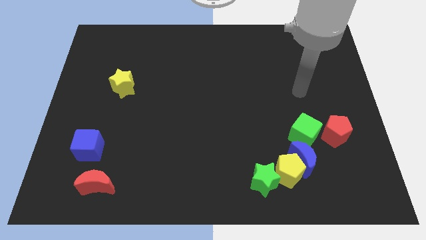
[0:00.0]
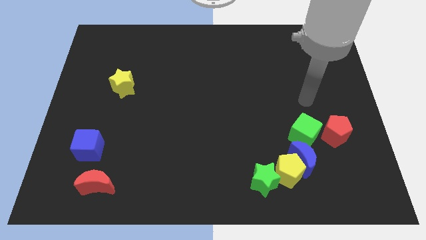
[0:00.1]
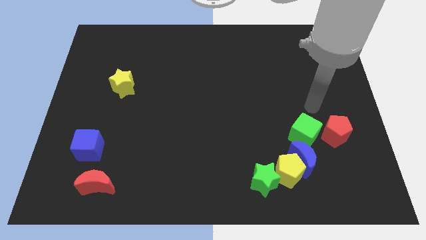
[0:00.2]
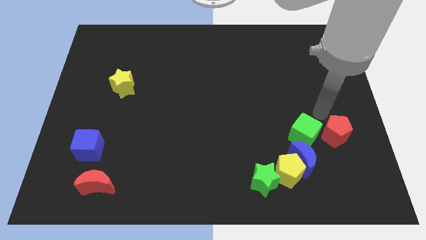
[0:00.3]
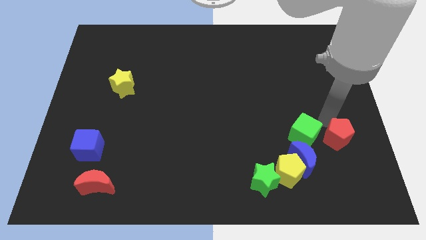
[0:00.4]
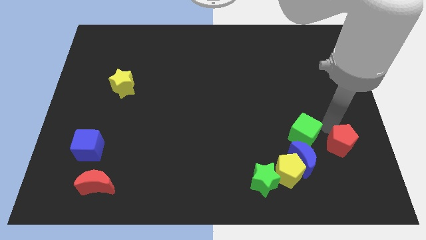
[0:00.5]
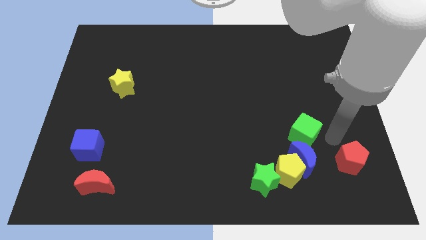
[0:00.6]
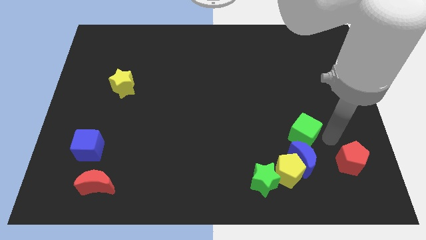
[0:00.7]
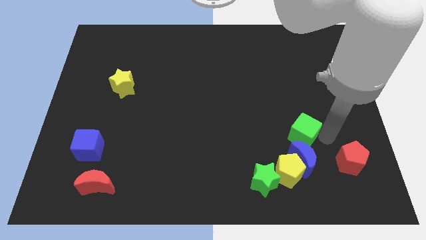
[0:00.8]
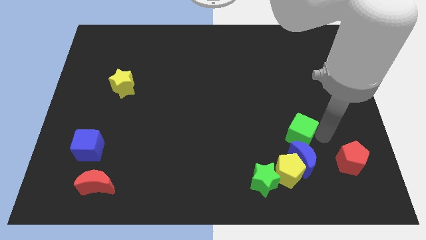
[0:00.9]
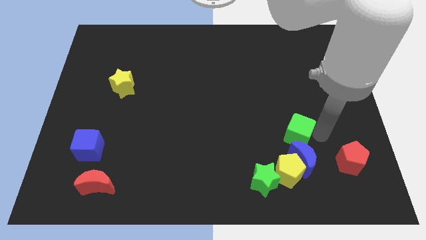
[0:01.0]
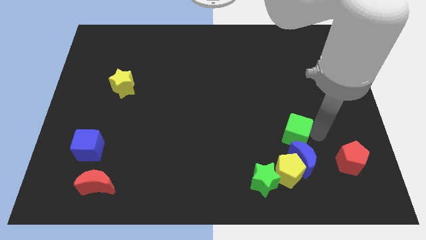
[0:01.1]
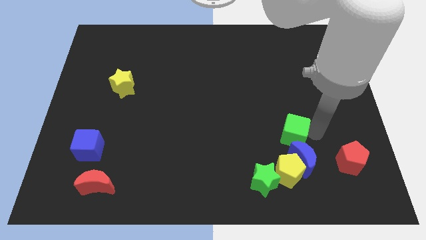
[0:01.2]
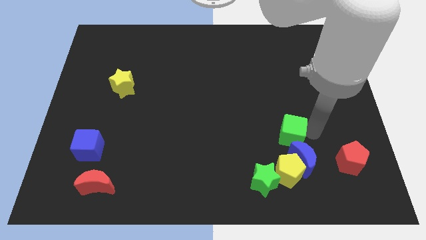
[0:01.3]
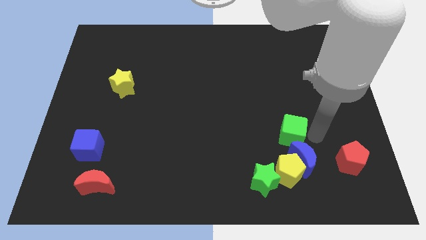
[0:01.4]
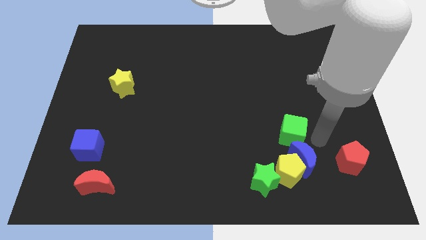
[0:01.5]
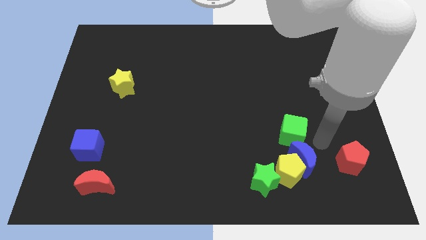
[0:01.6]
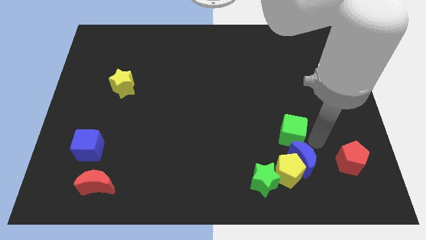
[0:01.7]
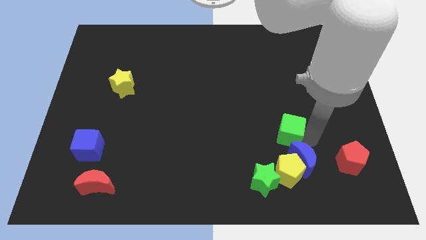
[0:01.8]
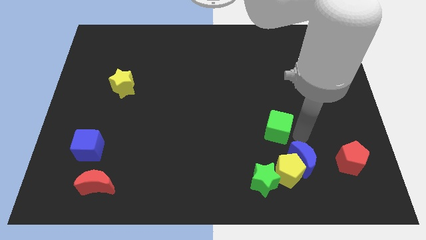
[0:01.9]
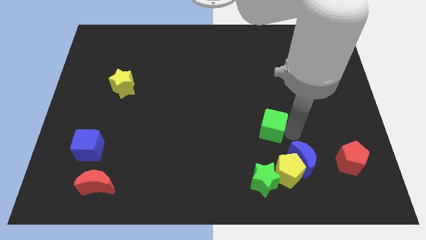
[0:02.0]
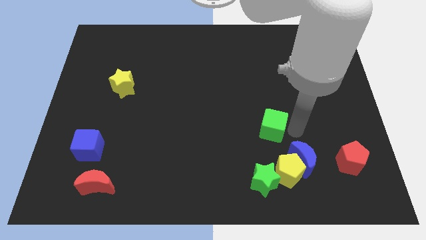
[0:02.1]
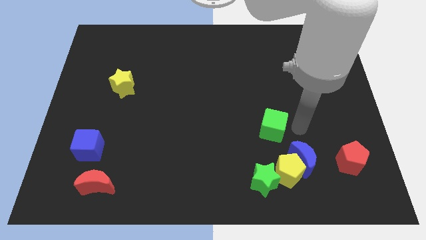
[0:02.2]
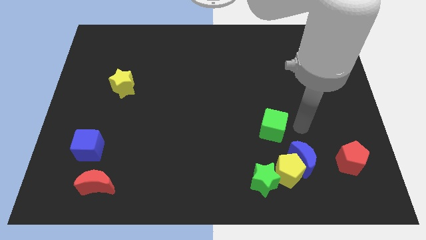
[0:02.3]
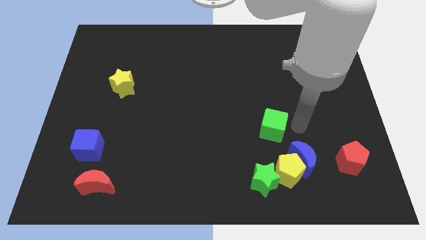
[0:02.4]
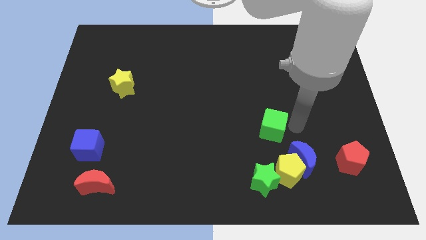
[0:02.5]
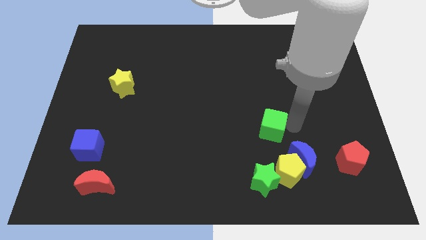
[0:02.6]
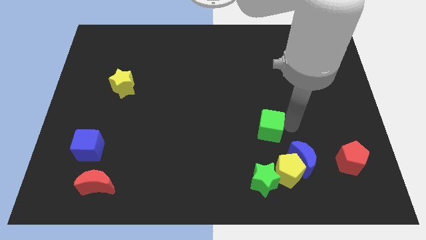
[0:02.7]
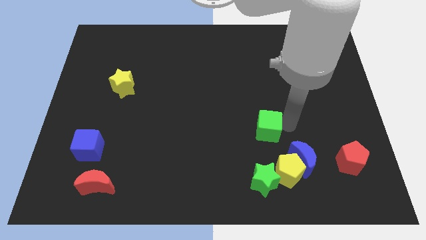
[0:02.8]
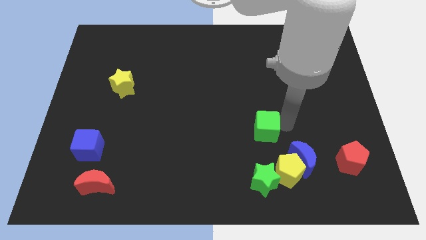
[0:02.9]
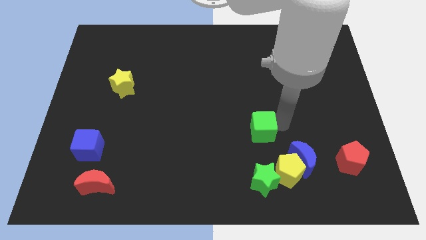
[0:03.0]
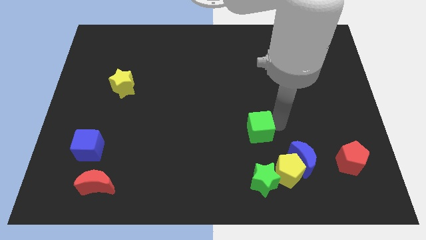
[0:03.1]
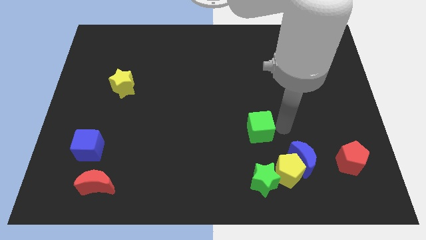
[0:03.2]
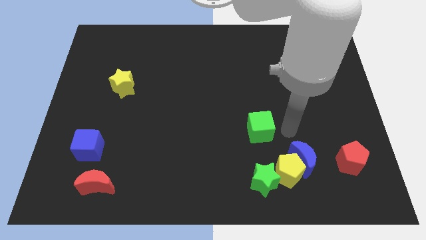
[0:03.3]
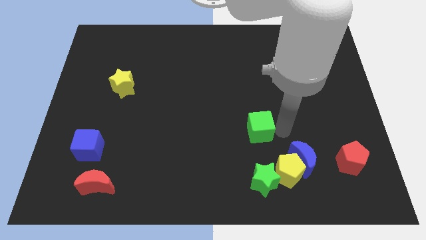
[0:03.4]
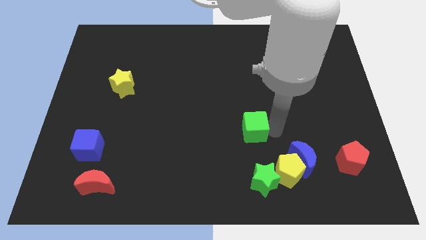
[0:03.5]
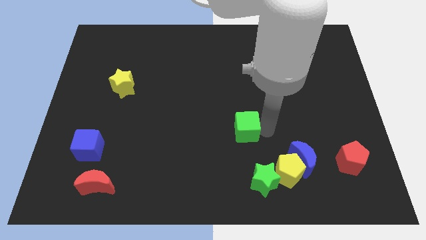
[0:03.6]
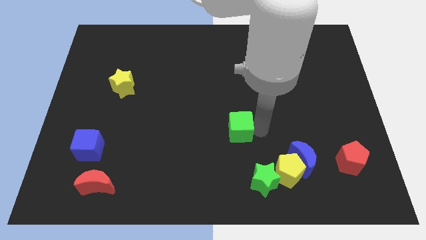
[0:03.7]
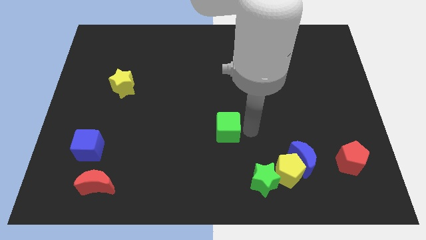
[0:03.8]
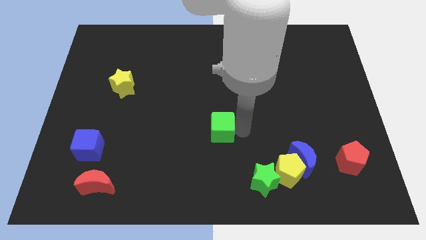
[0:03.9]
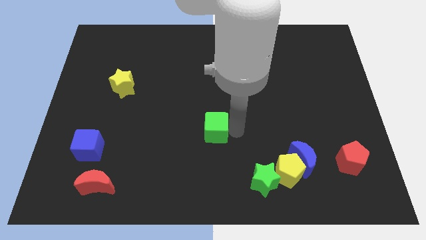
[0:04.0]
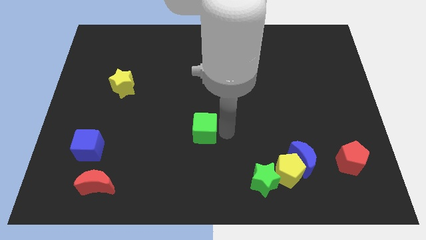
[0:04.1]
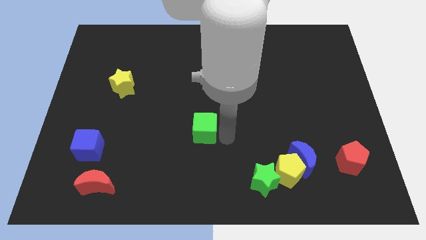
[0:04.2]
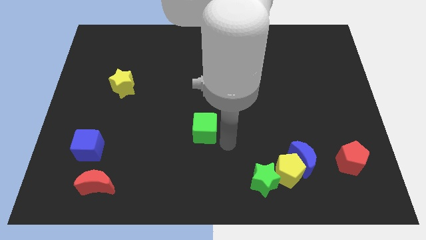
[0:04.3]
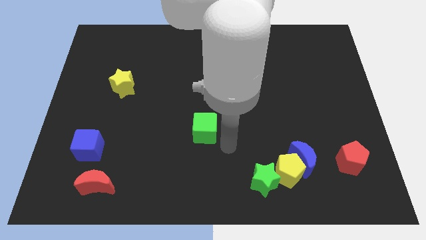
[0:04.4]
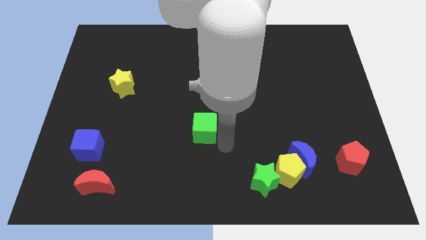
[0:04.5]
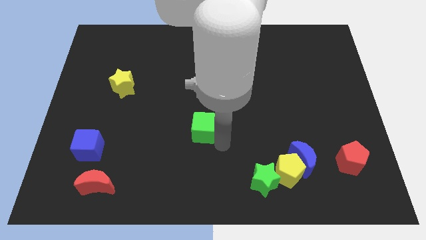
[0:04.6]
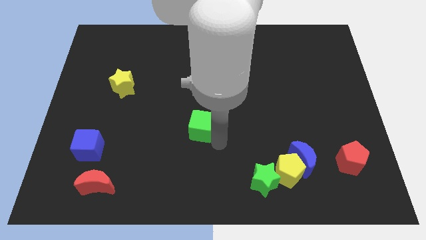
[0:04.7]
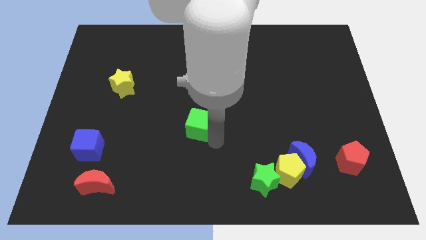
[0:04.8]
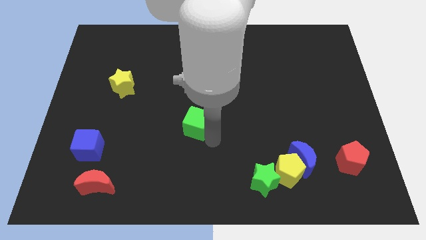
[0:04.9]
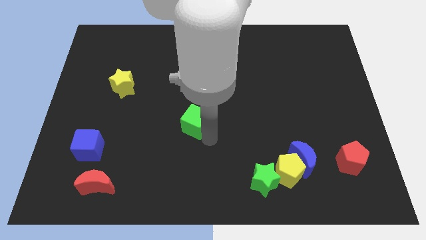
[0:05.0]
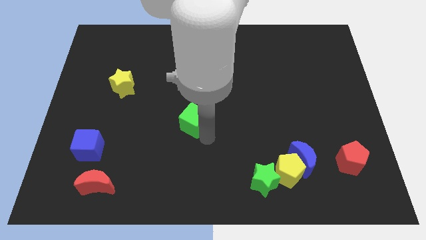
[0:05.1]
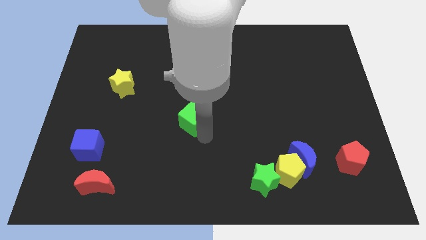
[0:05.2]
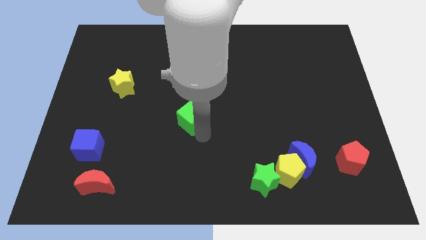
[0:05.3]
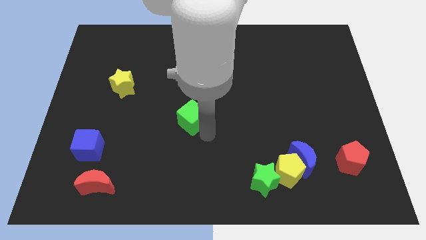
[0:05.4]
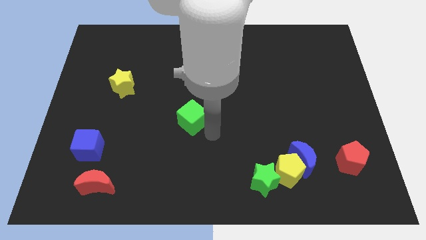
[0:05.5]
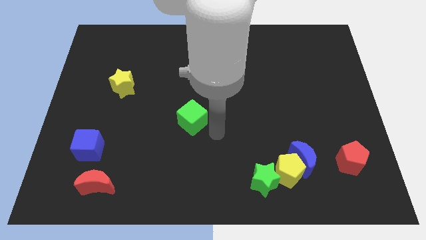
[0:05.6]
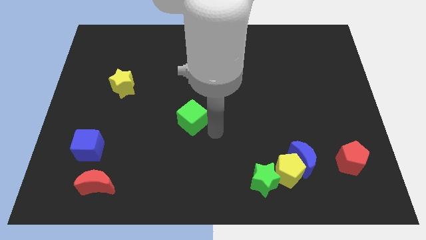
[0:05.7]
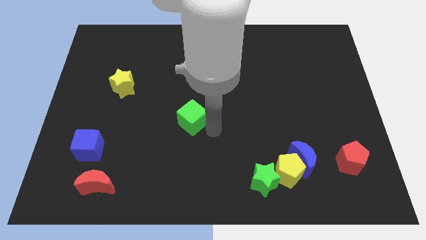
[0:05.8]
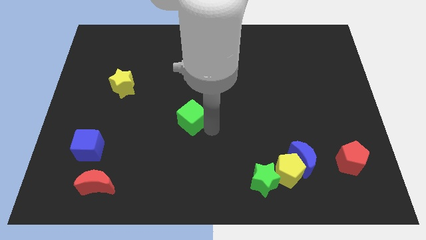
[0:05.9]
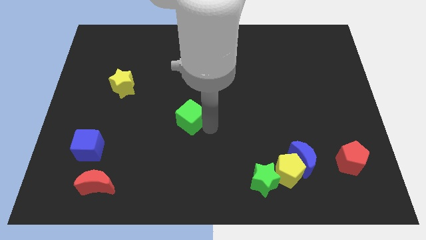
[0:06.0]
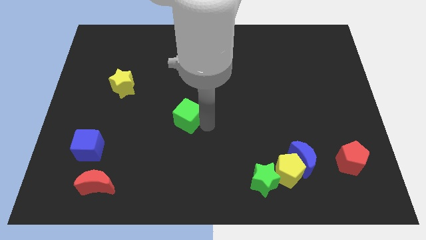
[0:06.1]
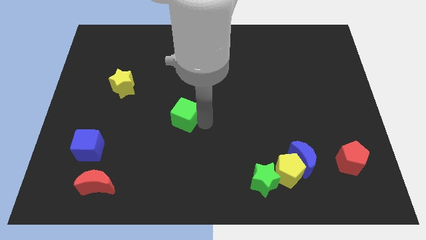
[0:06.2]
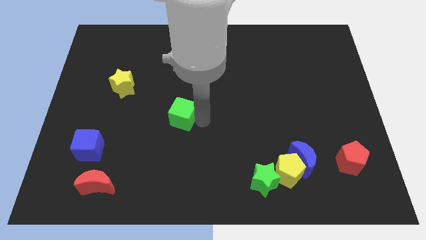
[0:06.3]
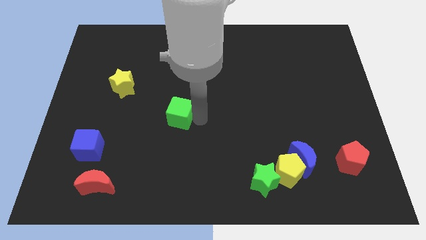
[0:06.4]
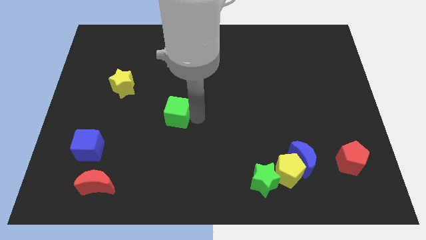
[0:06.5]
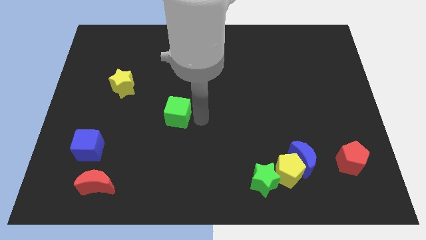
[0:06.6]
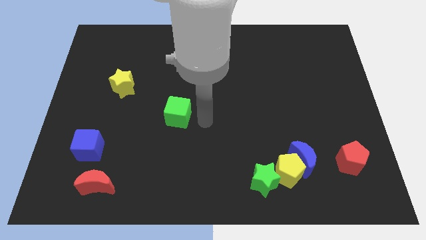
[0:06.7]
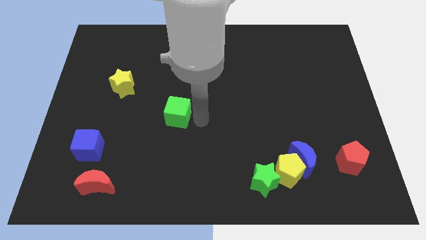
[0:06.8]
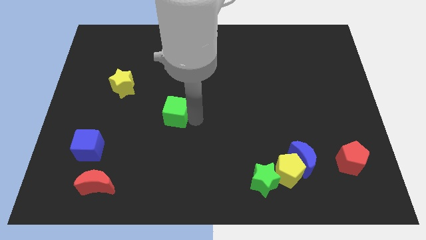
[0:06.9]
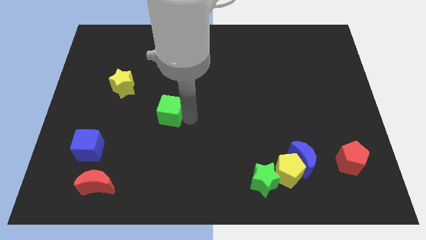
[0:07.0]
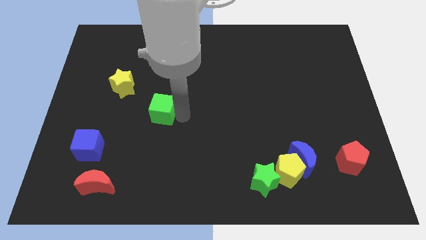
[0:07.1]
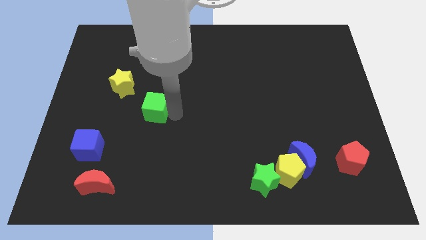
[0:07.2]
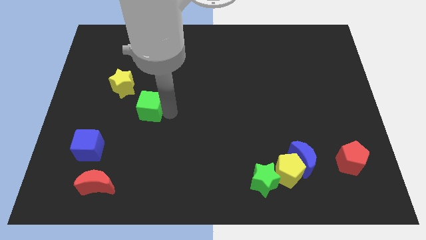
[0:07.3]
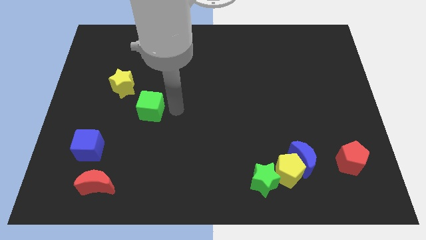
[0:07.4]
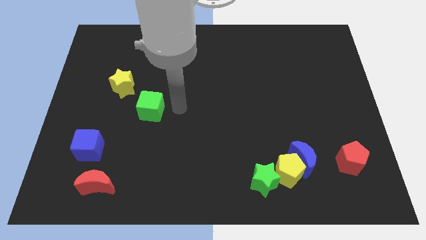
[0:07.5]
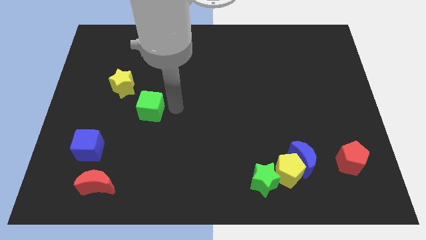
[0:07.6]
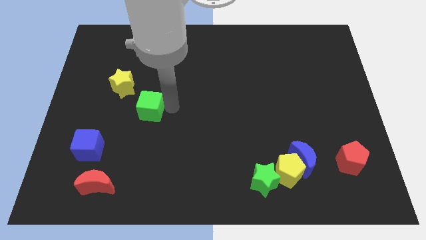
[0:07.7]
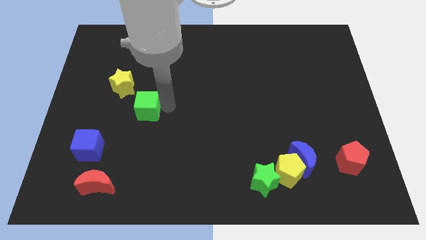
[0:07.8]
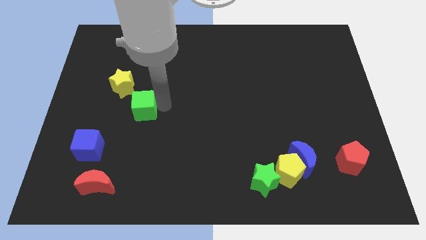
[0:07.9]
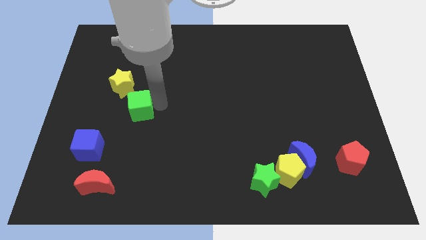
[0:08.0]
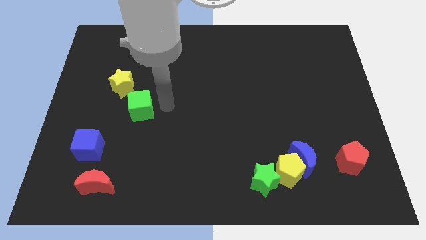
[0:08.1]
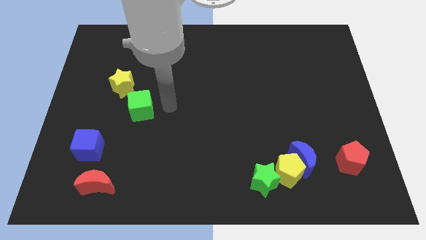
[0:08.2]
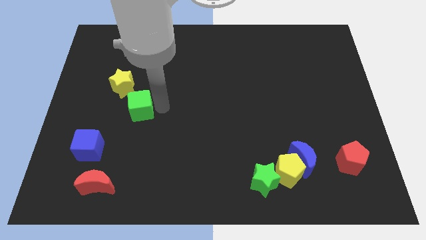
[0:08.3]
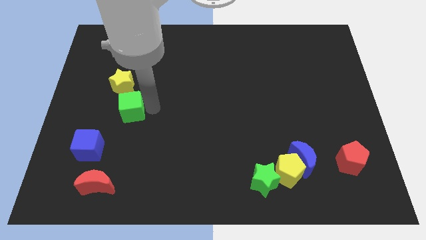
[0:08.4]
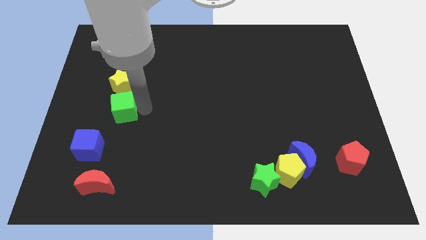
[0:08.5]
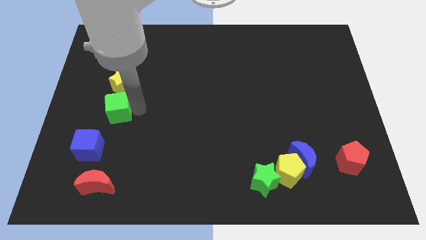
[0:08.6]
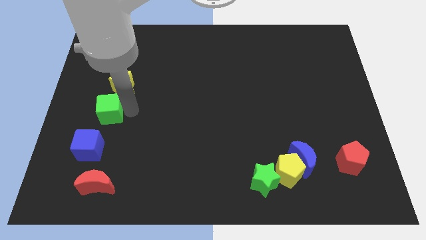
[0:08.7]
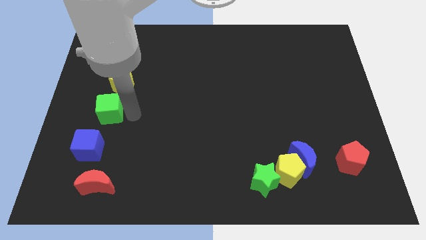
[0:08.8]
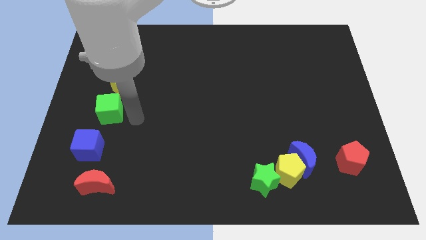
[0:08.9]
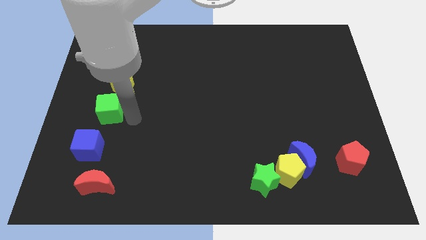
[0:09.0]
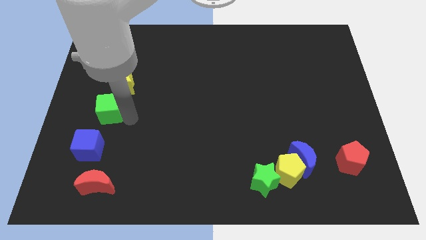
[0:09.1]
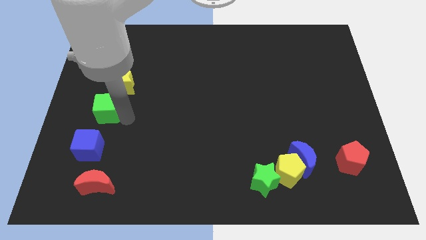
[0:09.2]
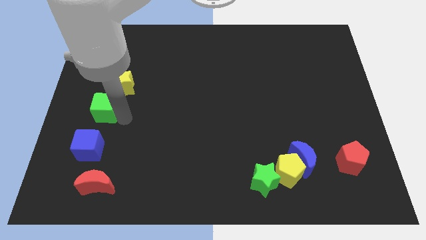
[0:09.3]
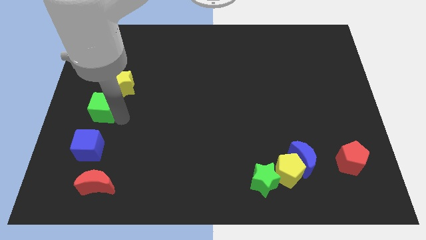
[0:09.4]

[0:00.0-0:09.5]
slide the green cube to the left side of the board
